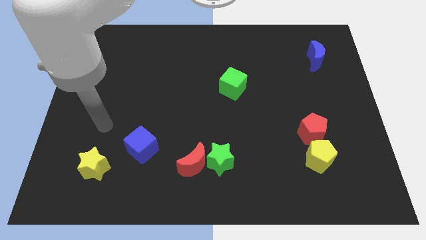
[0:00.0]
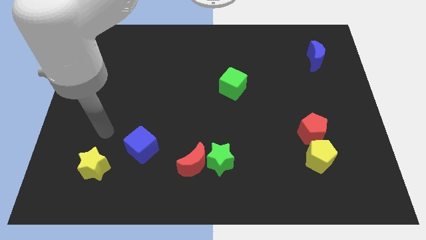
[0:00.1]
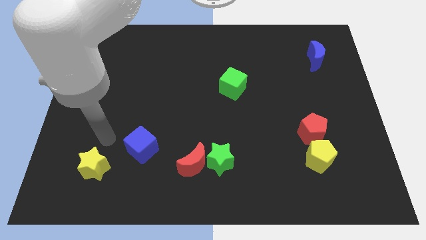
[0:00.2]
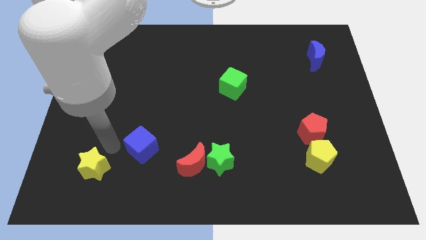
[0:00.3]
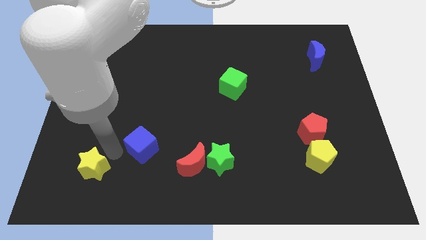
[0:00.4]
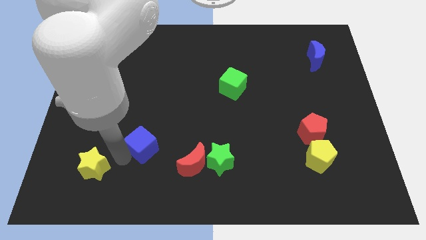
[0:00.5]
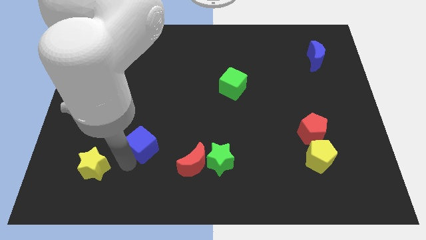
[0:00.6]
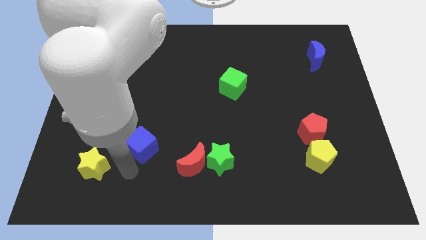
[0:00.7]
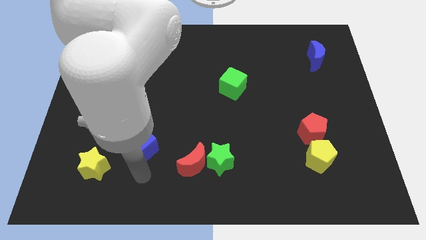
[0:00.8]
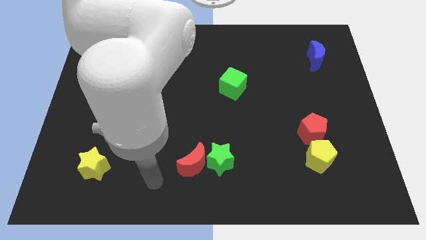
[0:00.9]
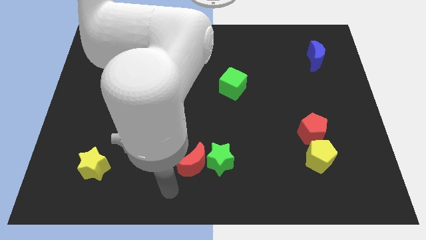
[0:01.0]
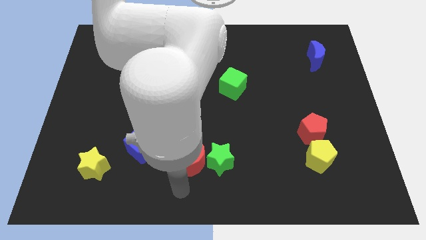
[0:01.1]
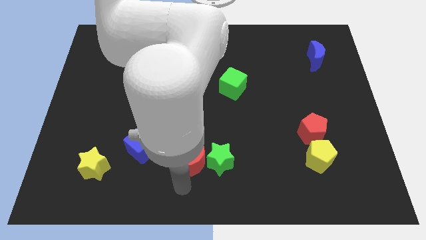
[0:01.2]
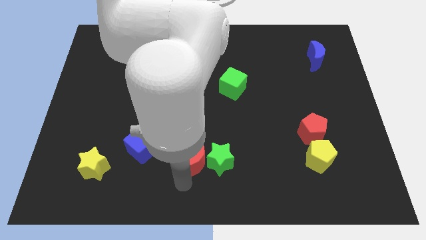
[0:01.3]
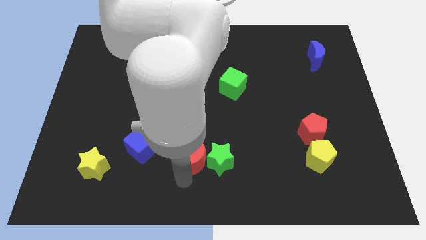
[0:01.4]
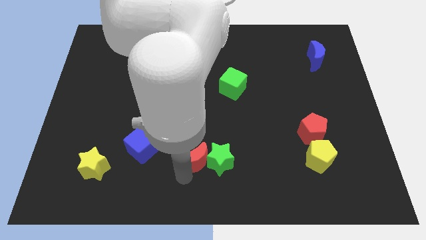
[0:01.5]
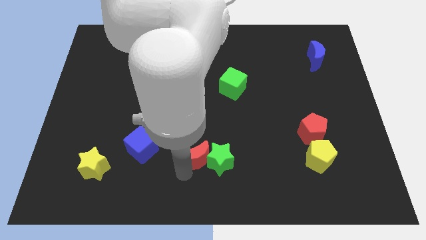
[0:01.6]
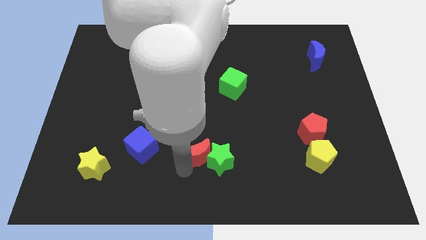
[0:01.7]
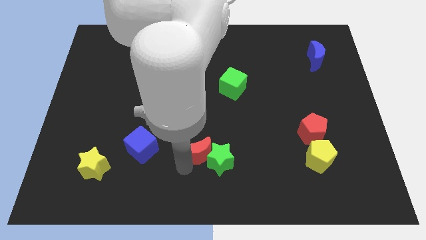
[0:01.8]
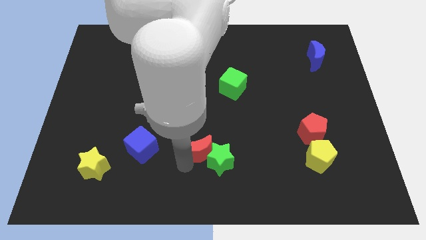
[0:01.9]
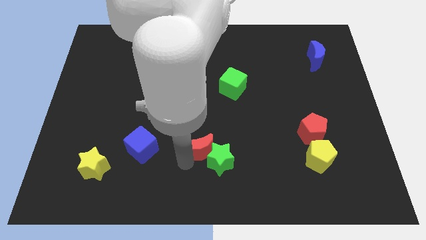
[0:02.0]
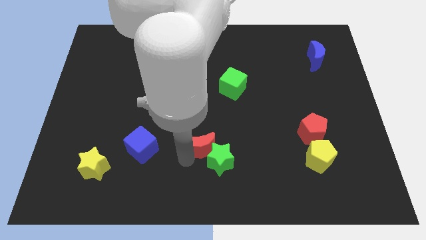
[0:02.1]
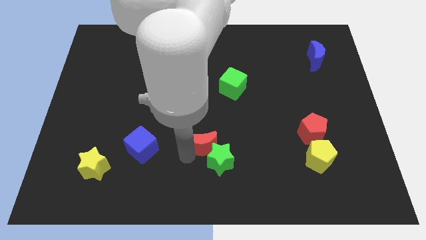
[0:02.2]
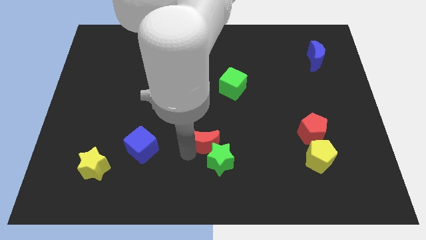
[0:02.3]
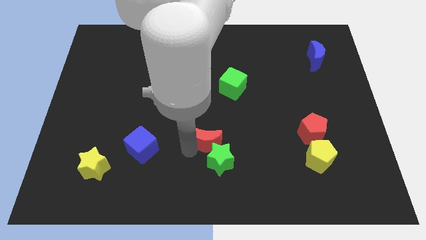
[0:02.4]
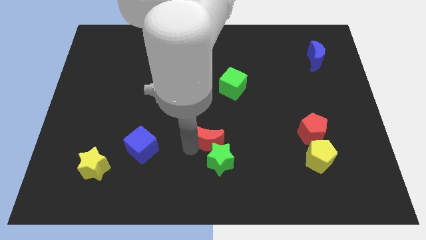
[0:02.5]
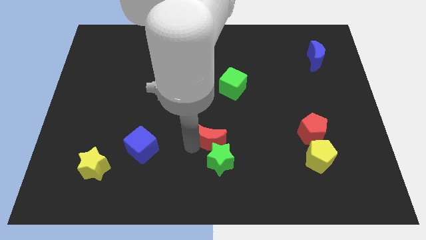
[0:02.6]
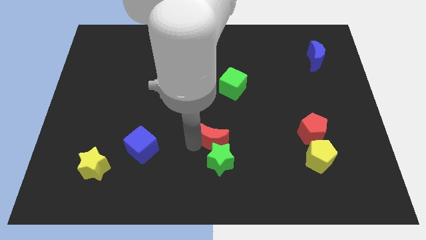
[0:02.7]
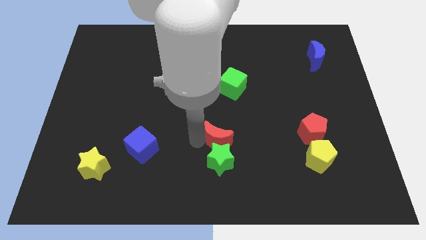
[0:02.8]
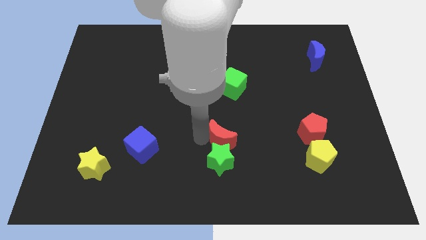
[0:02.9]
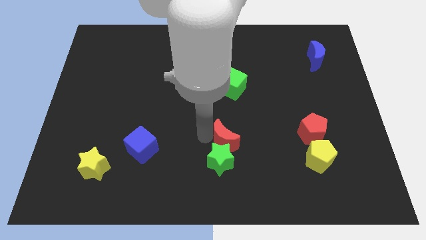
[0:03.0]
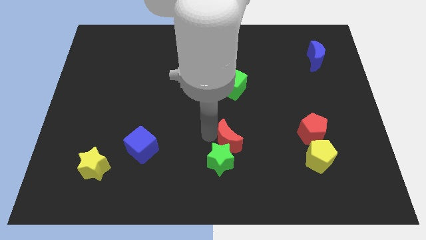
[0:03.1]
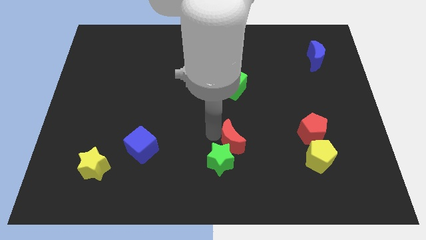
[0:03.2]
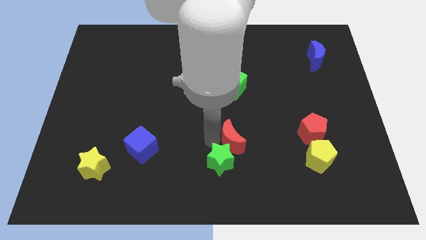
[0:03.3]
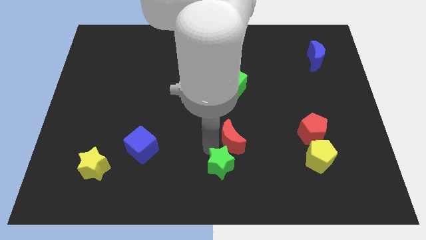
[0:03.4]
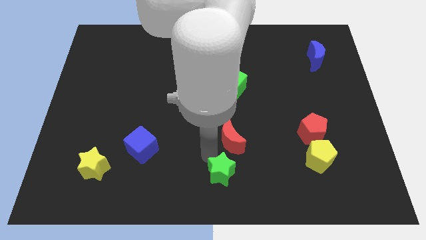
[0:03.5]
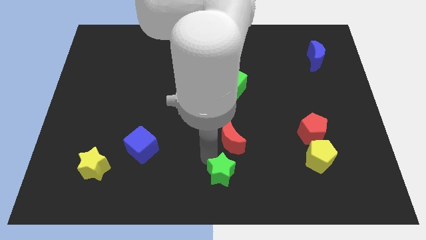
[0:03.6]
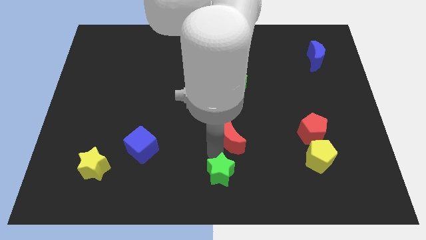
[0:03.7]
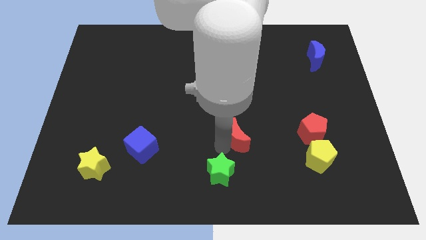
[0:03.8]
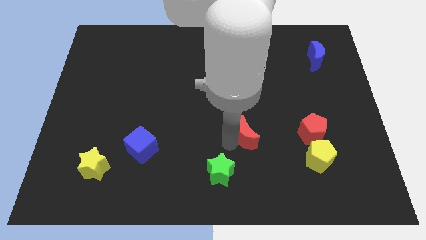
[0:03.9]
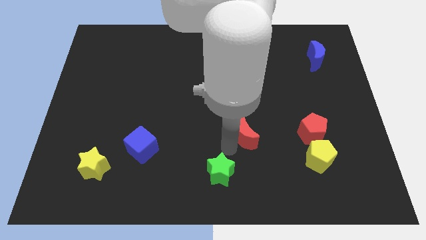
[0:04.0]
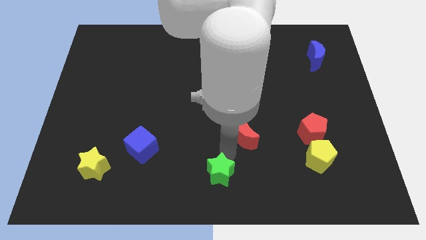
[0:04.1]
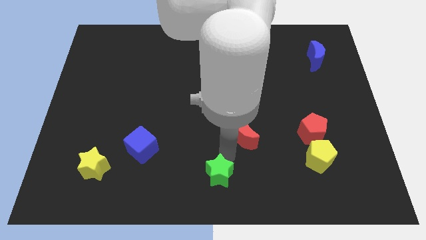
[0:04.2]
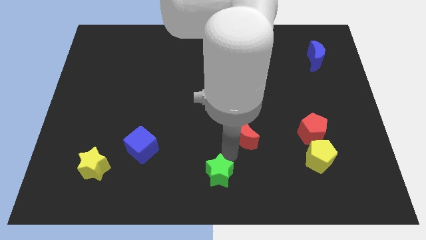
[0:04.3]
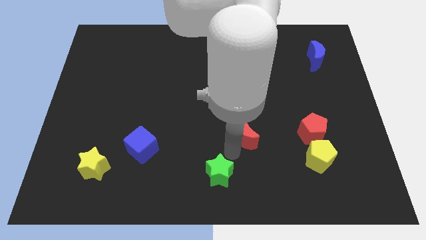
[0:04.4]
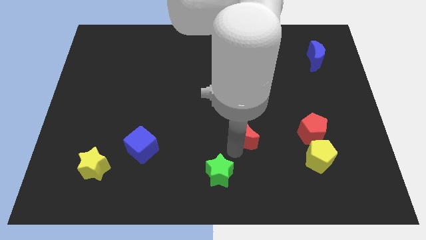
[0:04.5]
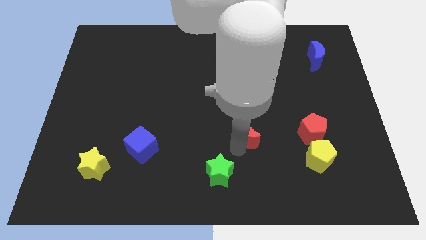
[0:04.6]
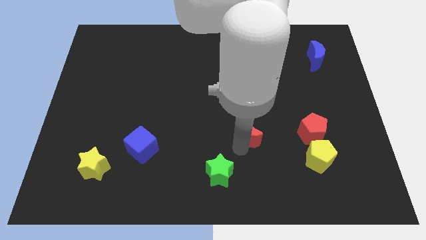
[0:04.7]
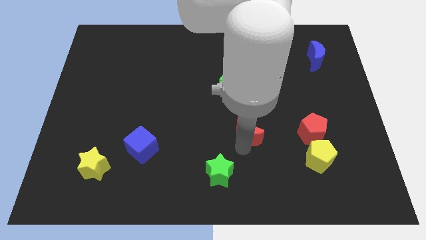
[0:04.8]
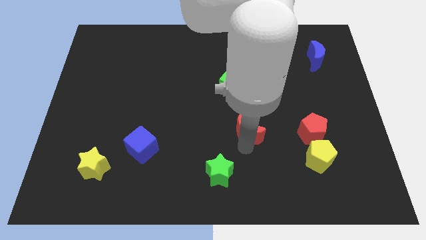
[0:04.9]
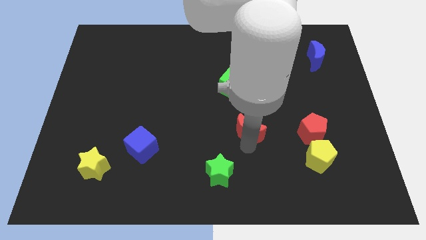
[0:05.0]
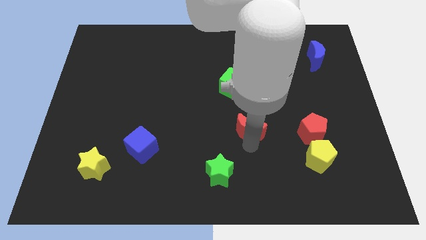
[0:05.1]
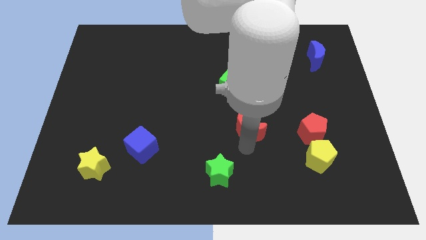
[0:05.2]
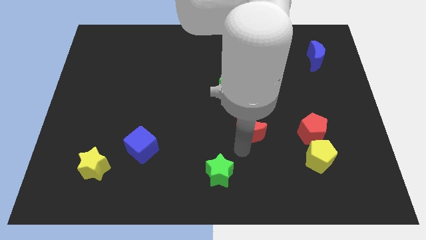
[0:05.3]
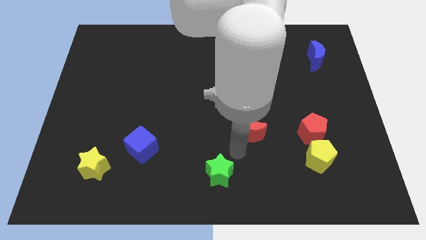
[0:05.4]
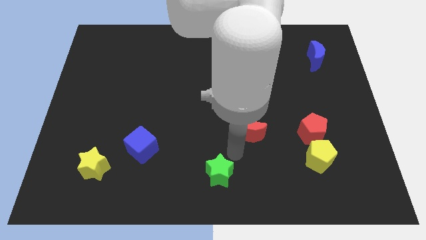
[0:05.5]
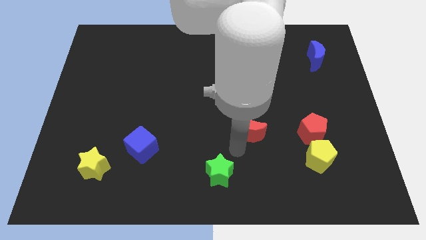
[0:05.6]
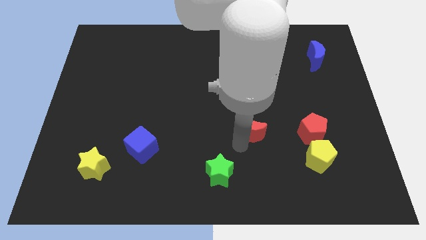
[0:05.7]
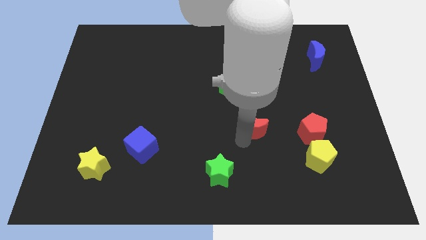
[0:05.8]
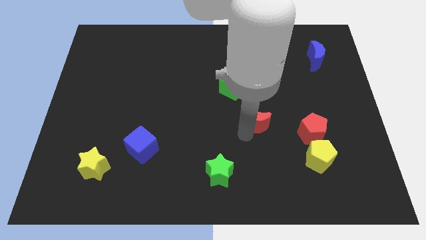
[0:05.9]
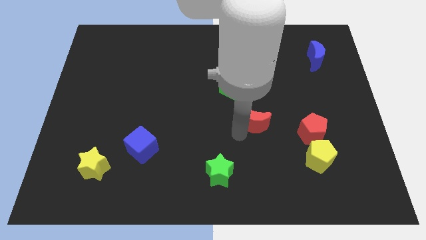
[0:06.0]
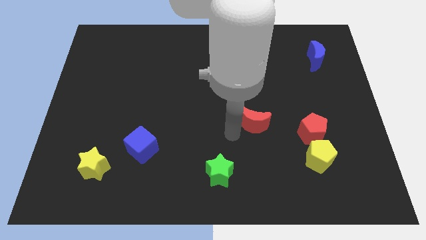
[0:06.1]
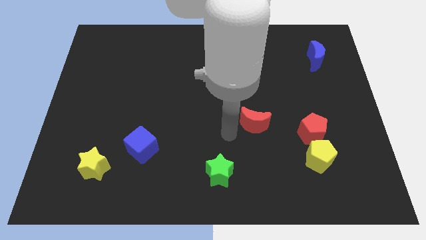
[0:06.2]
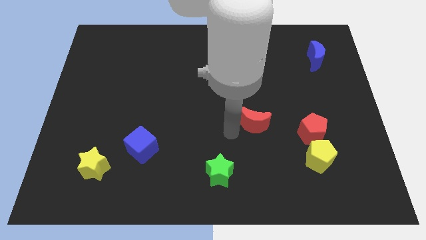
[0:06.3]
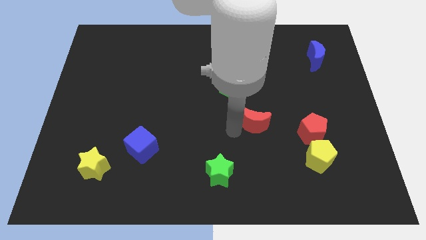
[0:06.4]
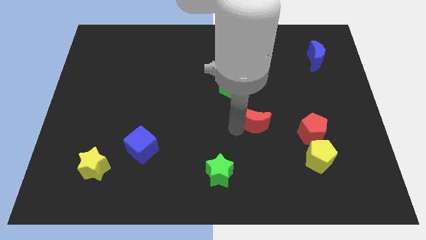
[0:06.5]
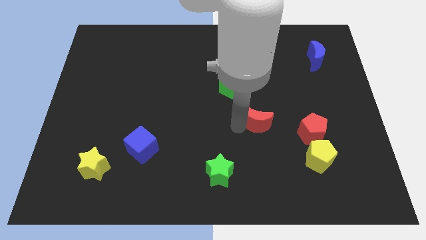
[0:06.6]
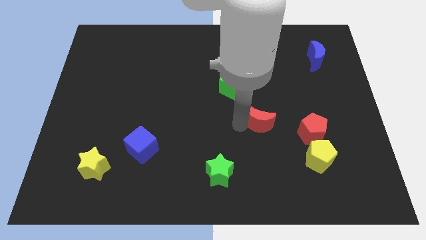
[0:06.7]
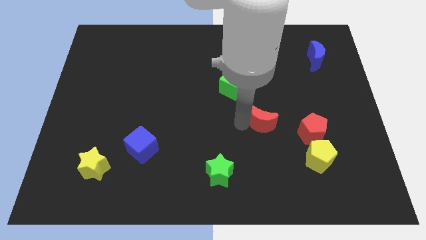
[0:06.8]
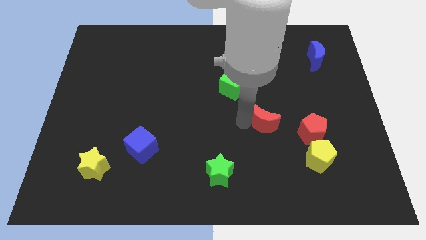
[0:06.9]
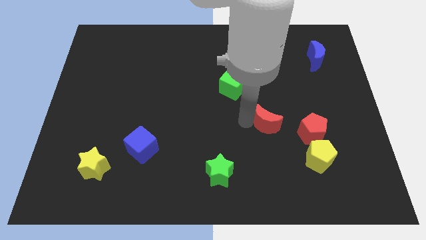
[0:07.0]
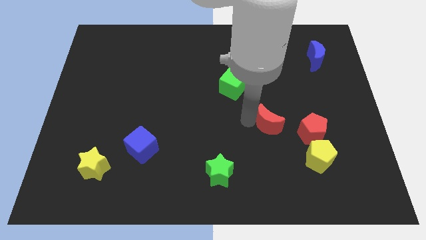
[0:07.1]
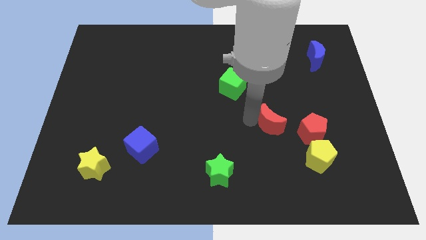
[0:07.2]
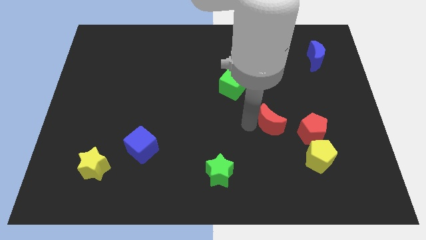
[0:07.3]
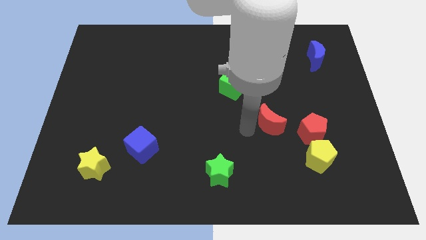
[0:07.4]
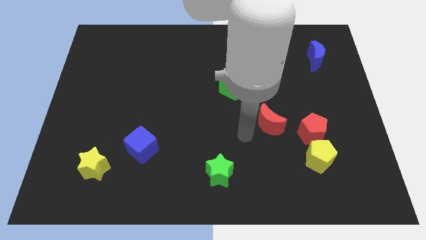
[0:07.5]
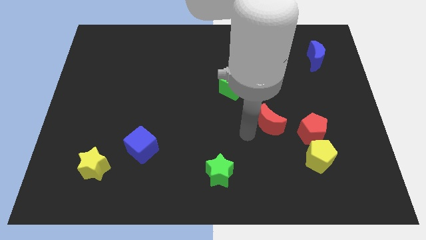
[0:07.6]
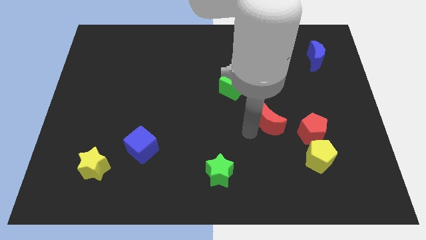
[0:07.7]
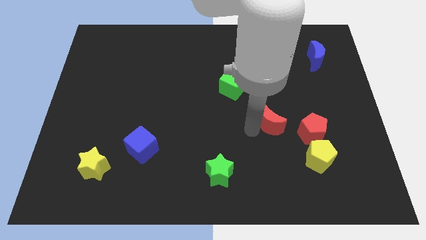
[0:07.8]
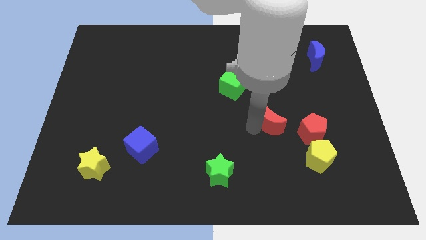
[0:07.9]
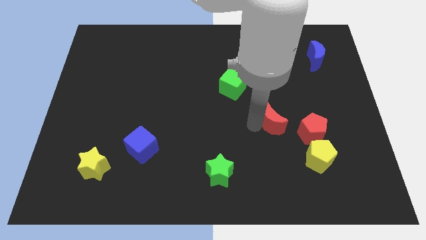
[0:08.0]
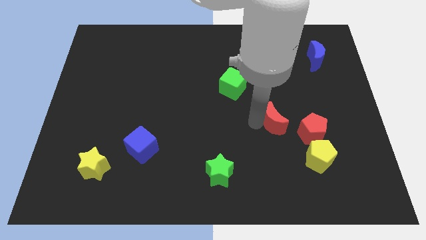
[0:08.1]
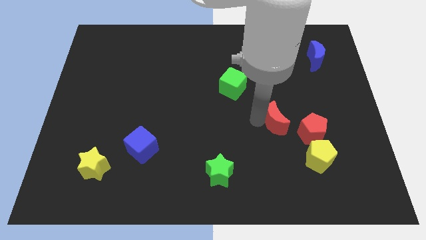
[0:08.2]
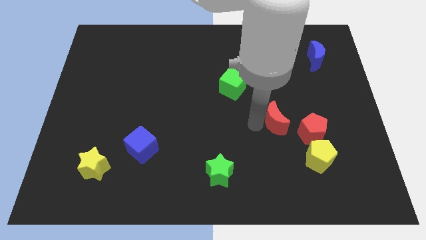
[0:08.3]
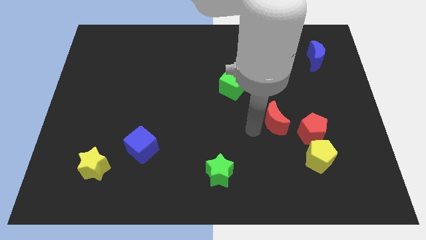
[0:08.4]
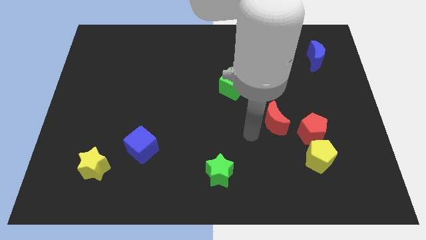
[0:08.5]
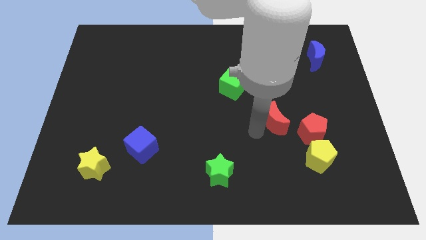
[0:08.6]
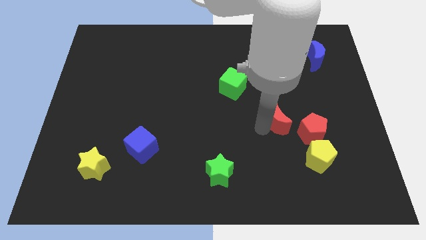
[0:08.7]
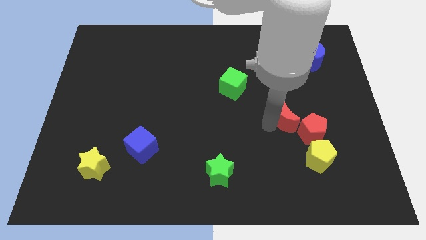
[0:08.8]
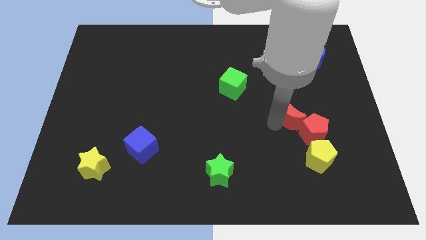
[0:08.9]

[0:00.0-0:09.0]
put the red moon above the red pentagon
